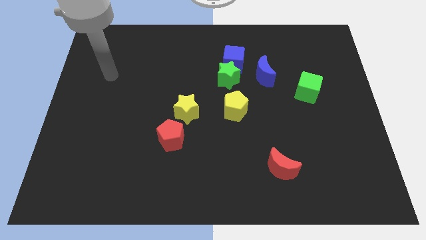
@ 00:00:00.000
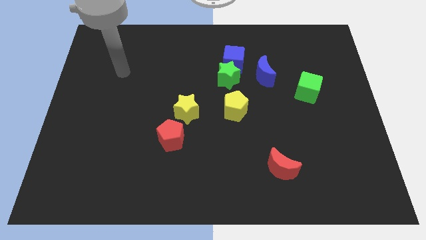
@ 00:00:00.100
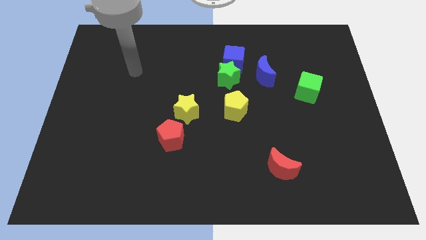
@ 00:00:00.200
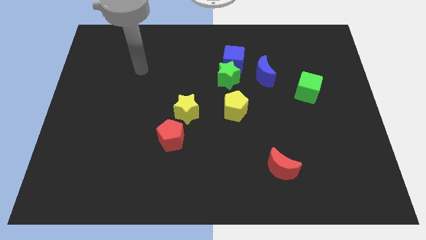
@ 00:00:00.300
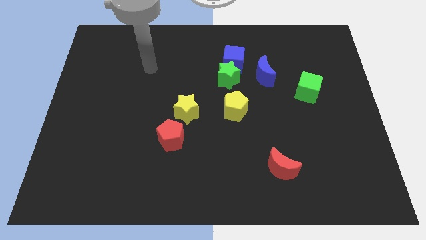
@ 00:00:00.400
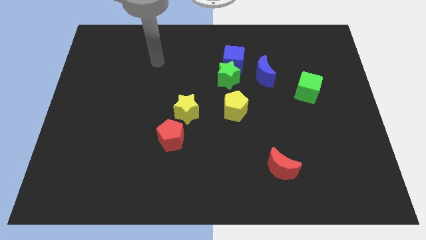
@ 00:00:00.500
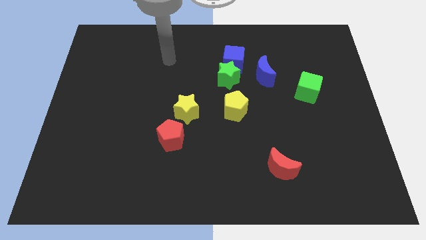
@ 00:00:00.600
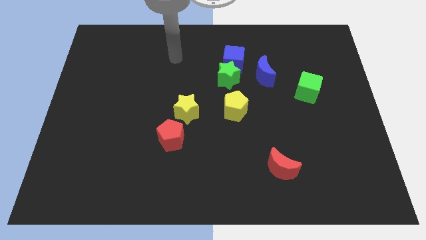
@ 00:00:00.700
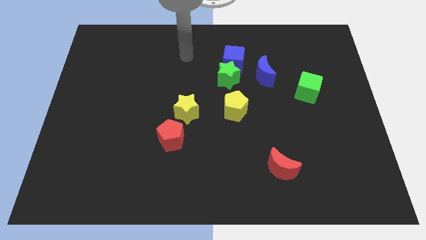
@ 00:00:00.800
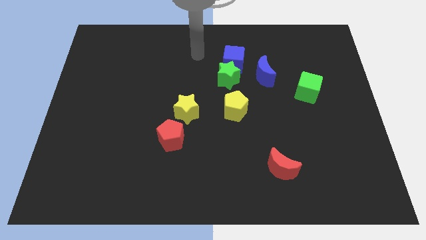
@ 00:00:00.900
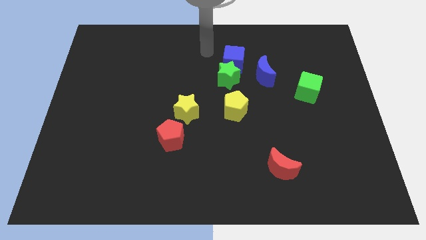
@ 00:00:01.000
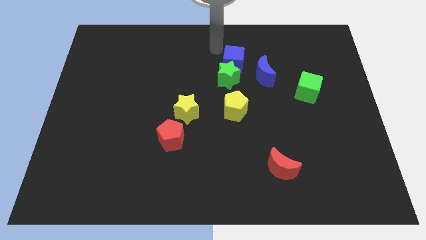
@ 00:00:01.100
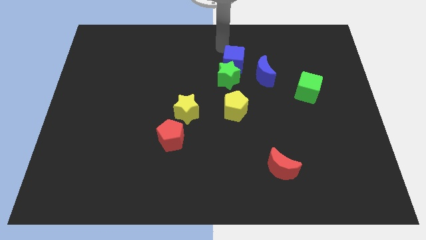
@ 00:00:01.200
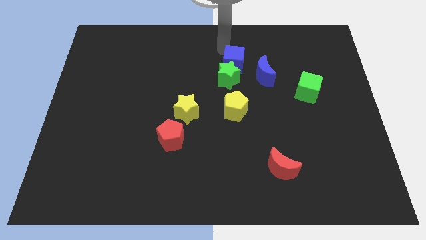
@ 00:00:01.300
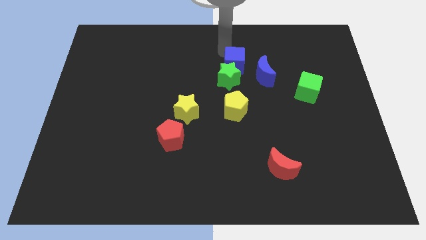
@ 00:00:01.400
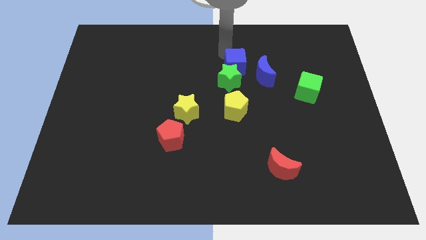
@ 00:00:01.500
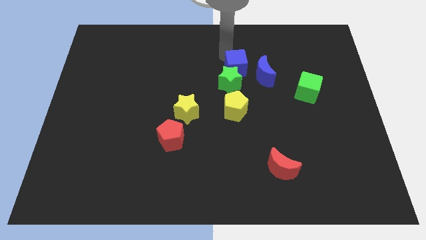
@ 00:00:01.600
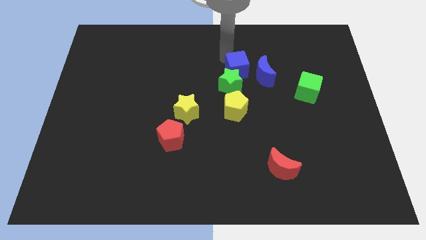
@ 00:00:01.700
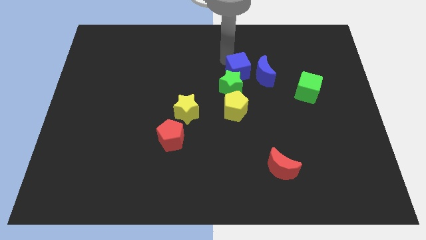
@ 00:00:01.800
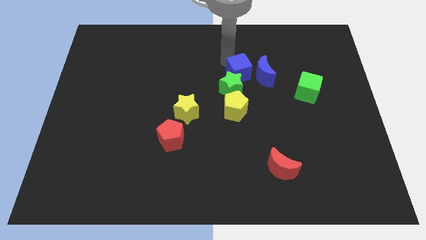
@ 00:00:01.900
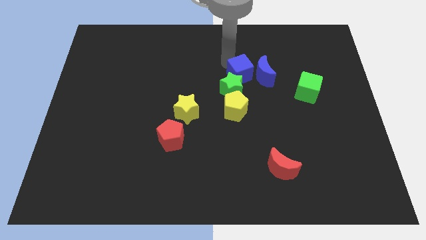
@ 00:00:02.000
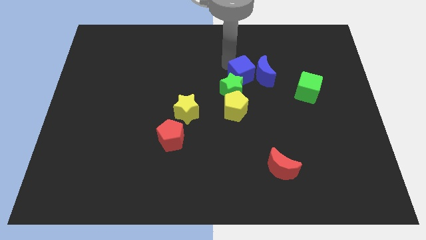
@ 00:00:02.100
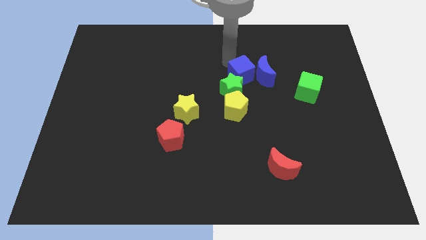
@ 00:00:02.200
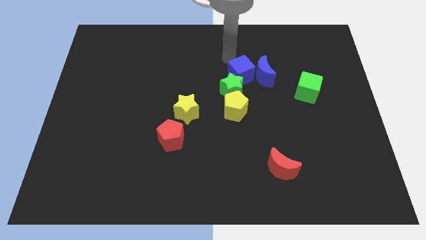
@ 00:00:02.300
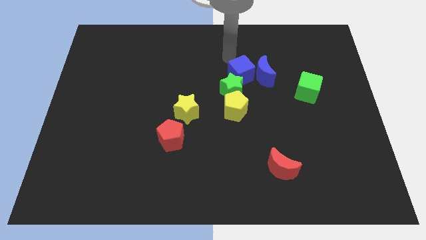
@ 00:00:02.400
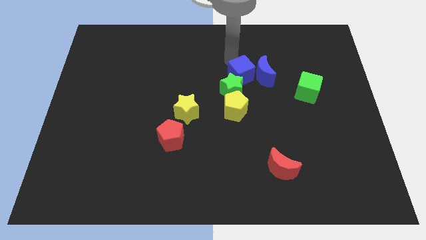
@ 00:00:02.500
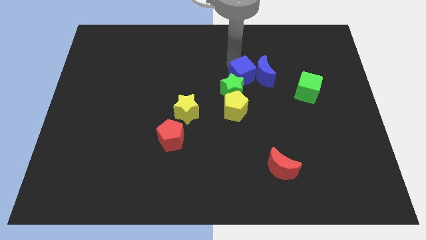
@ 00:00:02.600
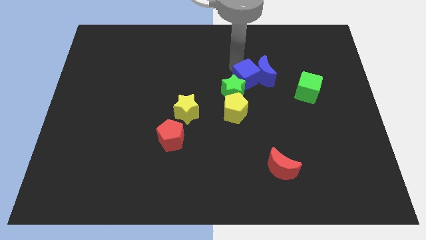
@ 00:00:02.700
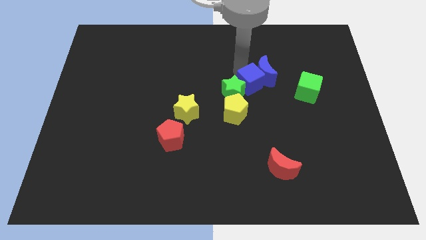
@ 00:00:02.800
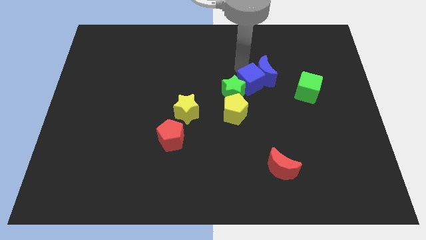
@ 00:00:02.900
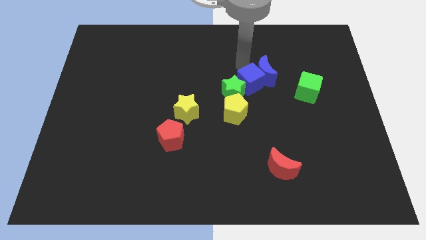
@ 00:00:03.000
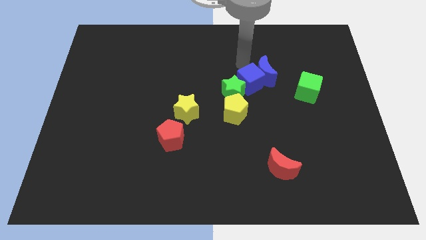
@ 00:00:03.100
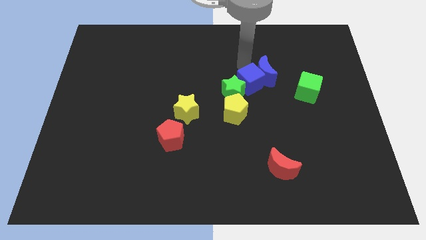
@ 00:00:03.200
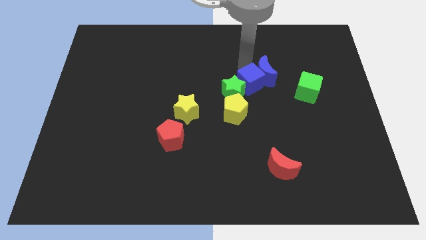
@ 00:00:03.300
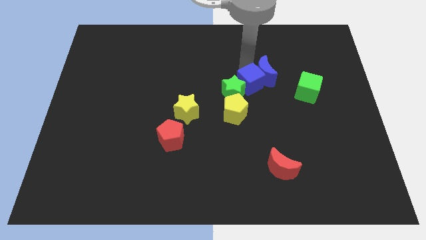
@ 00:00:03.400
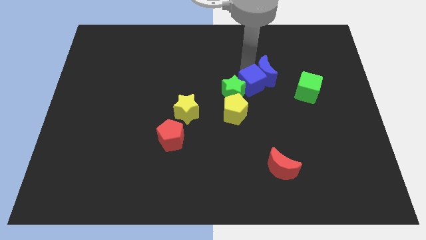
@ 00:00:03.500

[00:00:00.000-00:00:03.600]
slightly push the blue cube down

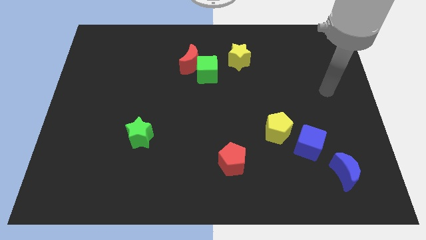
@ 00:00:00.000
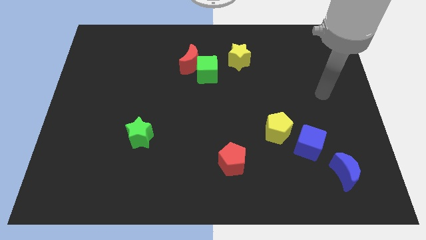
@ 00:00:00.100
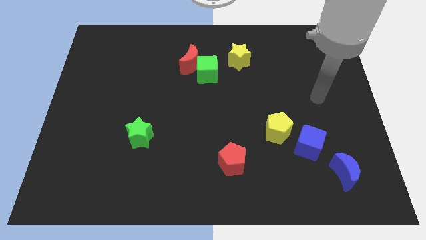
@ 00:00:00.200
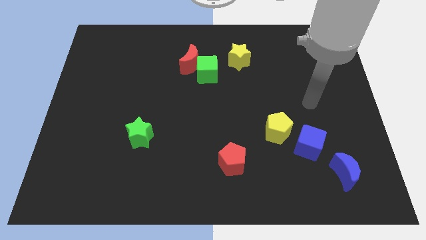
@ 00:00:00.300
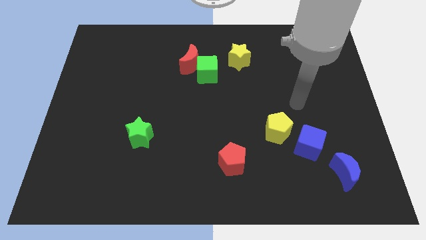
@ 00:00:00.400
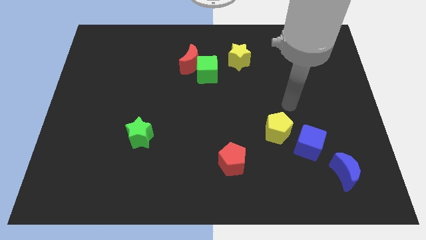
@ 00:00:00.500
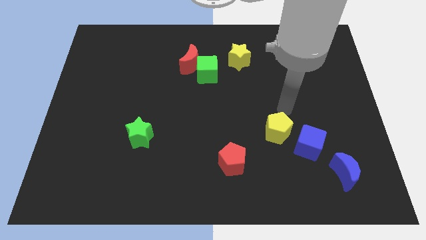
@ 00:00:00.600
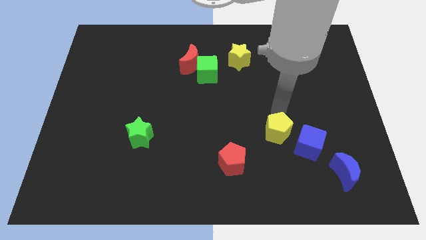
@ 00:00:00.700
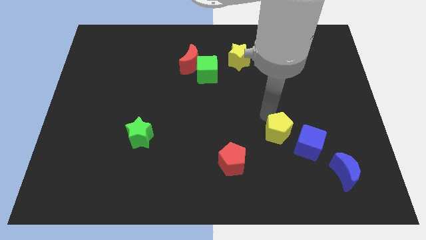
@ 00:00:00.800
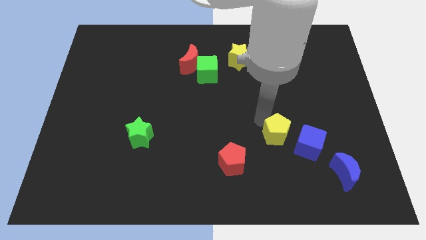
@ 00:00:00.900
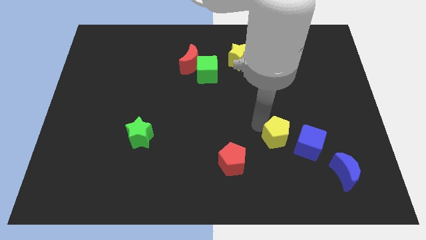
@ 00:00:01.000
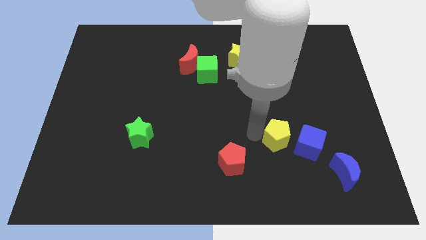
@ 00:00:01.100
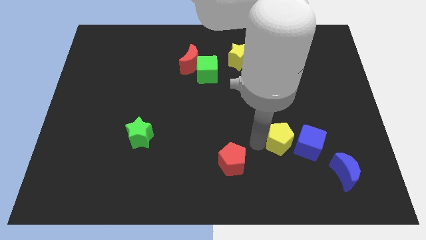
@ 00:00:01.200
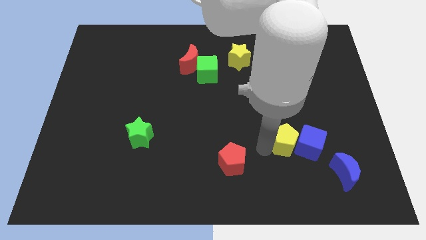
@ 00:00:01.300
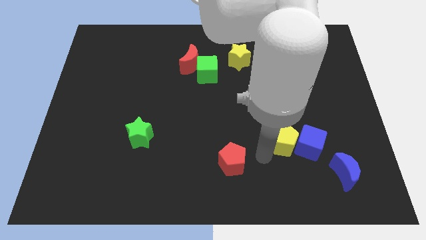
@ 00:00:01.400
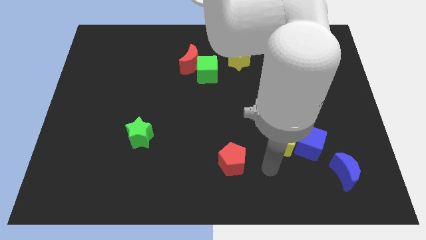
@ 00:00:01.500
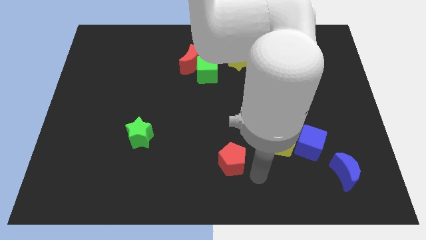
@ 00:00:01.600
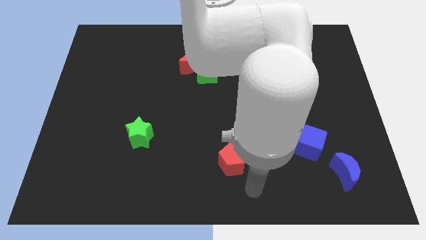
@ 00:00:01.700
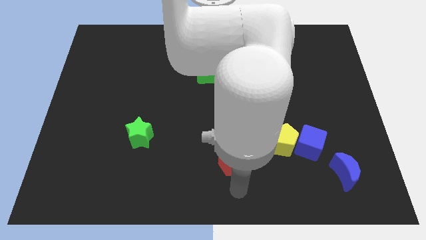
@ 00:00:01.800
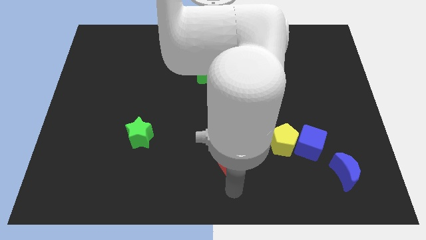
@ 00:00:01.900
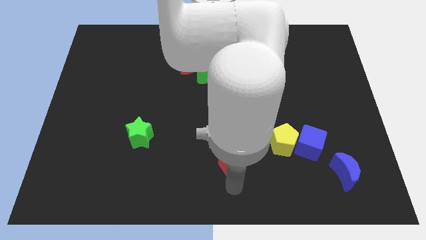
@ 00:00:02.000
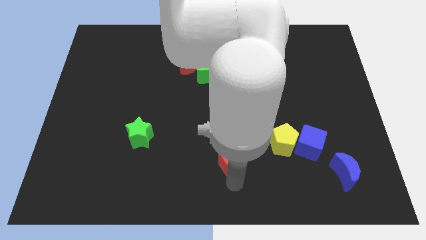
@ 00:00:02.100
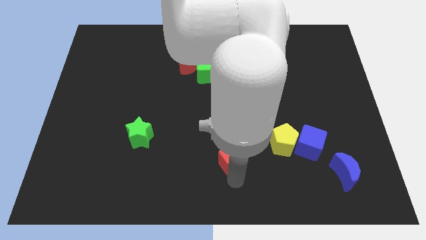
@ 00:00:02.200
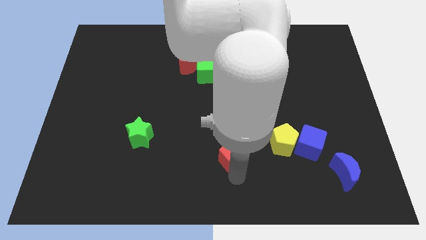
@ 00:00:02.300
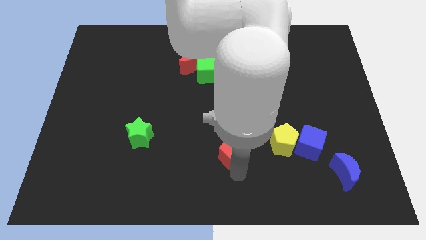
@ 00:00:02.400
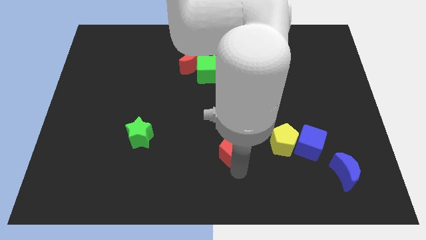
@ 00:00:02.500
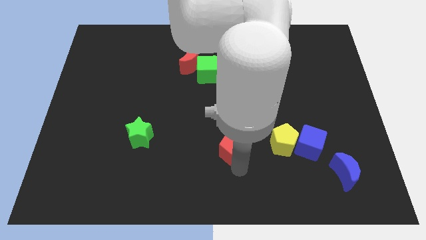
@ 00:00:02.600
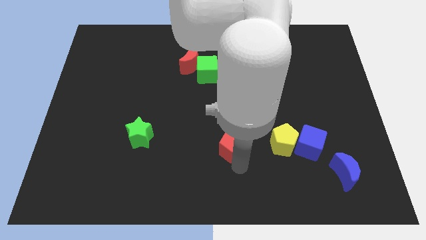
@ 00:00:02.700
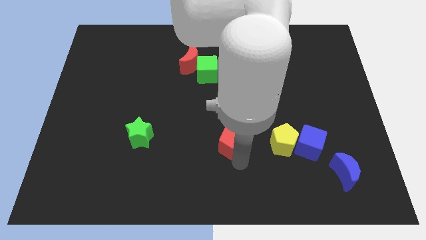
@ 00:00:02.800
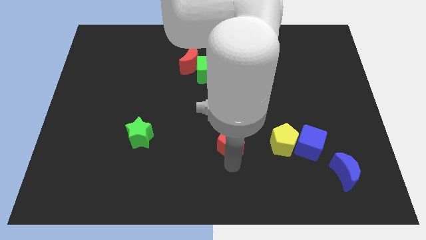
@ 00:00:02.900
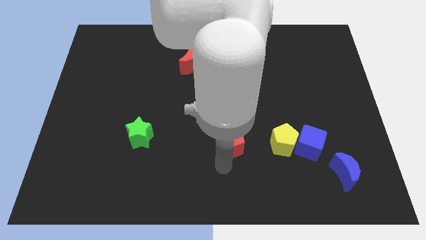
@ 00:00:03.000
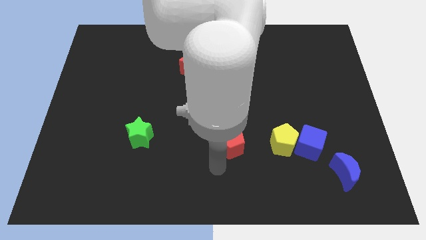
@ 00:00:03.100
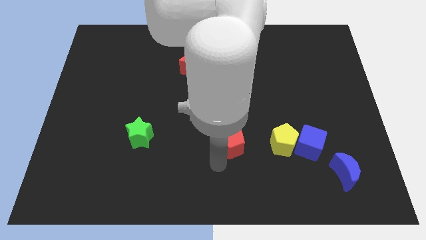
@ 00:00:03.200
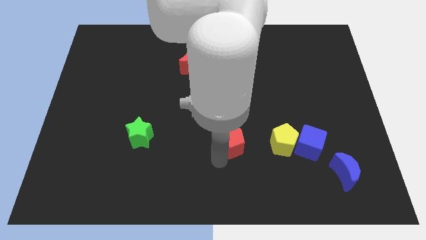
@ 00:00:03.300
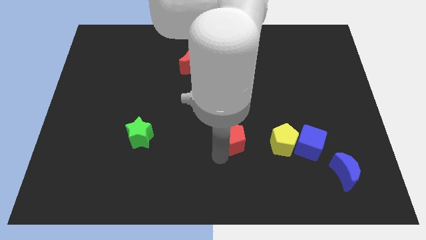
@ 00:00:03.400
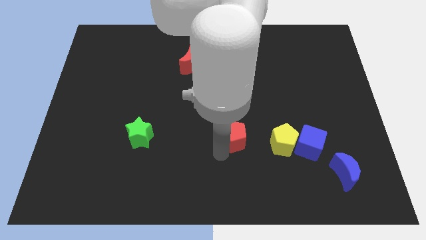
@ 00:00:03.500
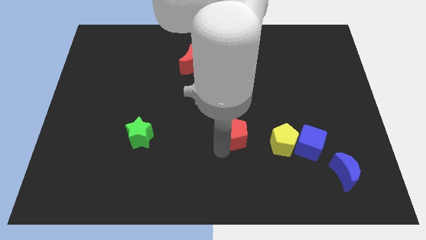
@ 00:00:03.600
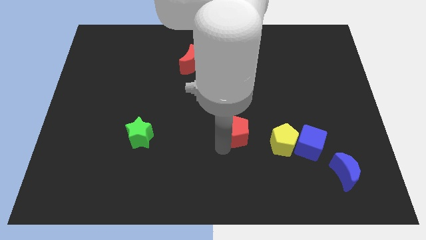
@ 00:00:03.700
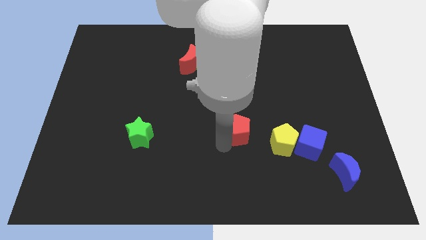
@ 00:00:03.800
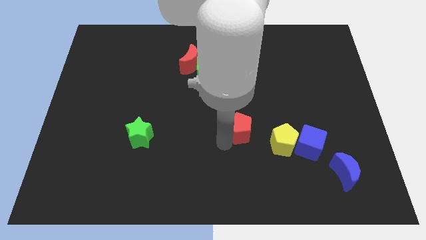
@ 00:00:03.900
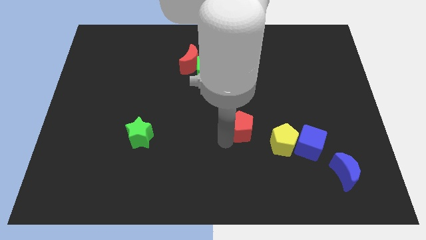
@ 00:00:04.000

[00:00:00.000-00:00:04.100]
slide the red pentagon slightly diagonally upwards and to the right
